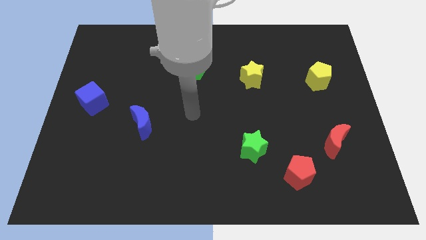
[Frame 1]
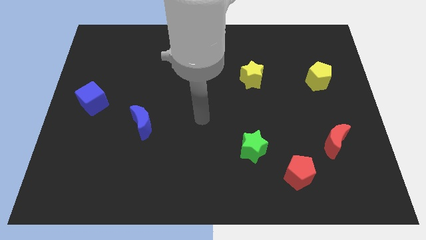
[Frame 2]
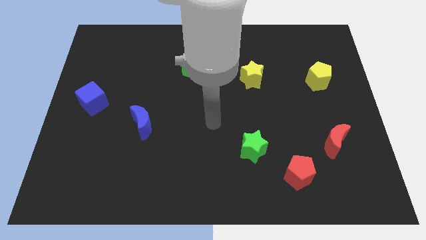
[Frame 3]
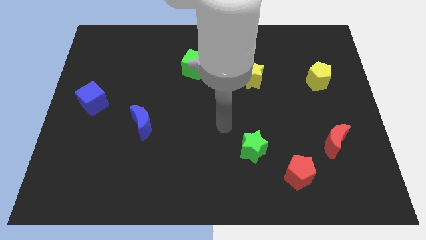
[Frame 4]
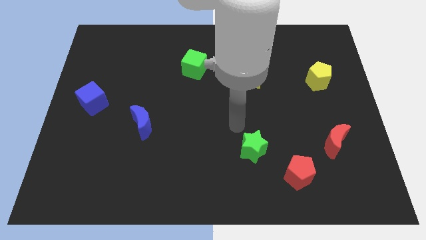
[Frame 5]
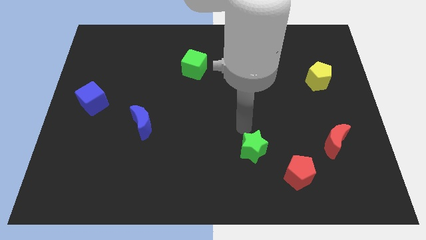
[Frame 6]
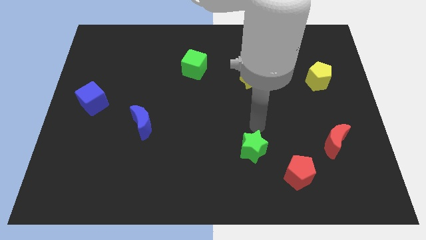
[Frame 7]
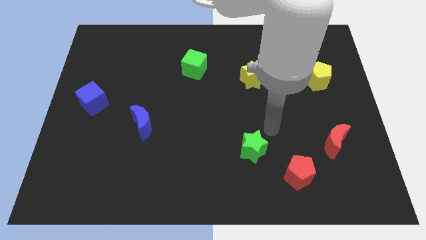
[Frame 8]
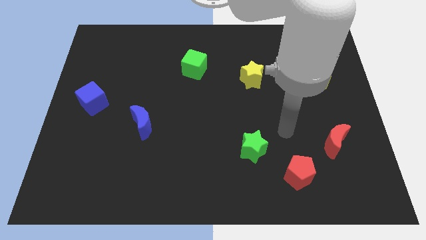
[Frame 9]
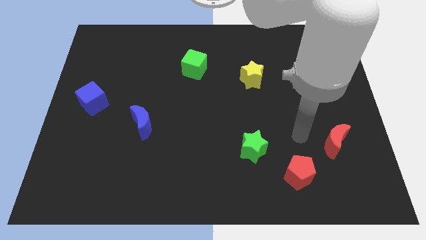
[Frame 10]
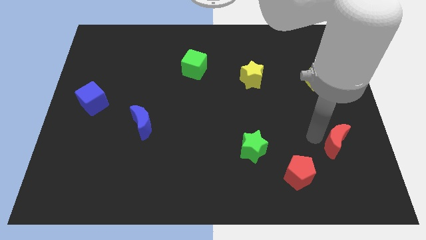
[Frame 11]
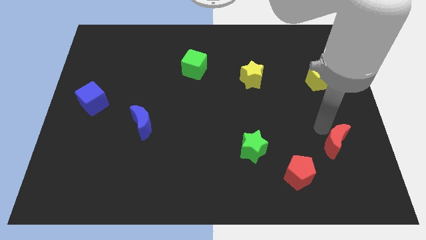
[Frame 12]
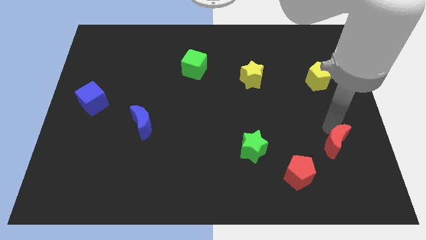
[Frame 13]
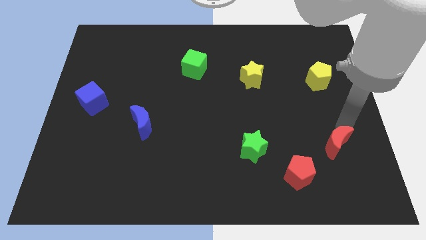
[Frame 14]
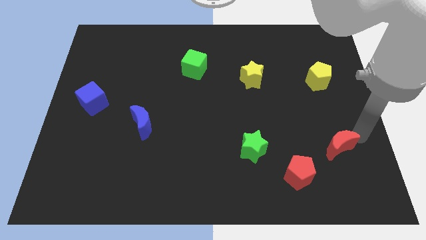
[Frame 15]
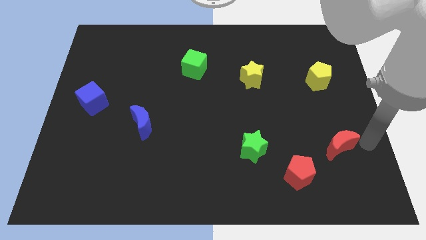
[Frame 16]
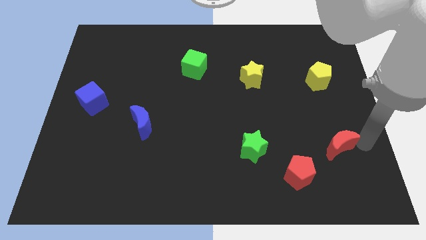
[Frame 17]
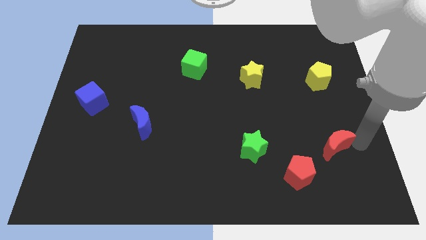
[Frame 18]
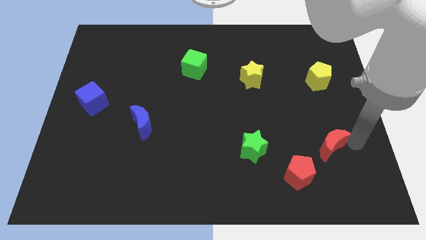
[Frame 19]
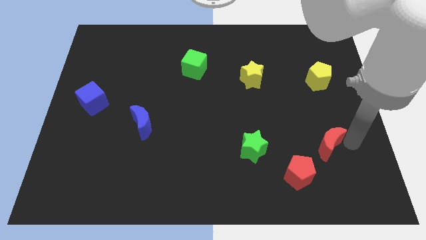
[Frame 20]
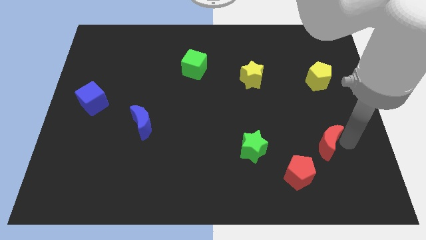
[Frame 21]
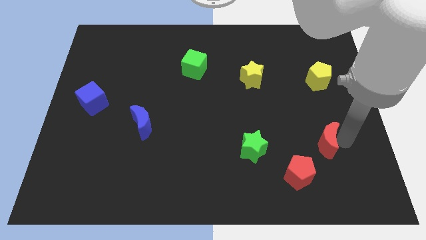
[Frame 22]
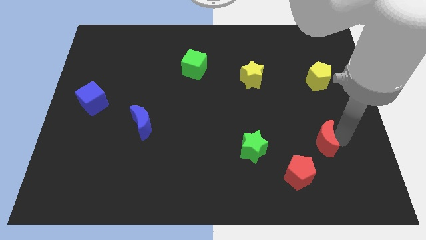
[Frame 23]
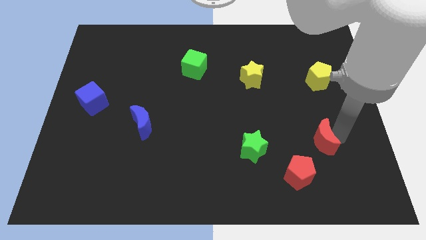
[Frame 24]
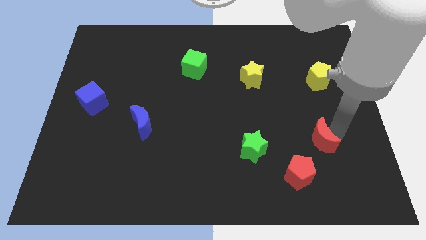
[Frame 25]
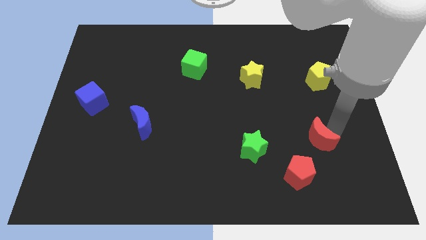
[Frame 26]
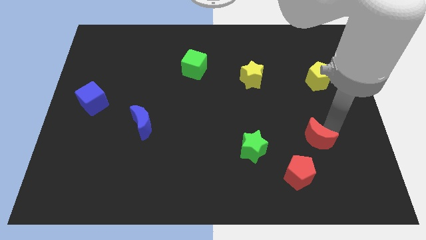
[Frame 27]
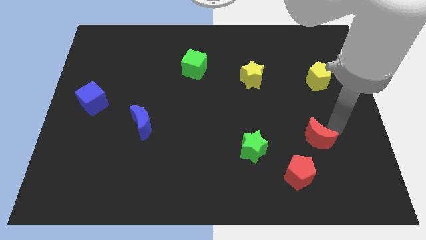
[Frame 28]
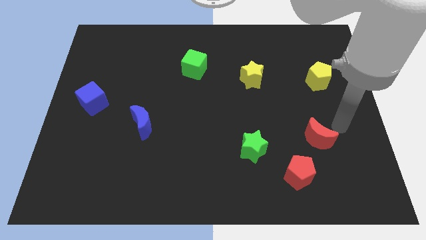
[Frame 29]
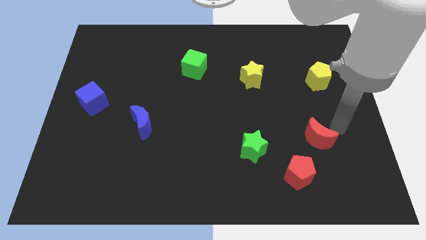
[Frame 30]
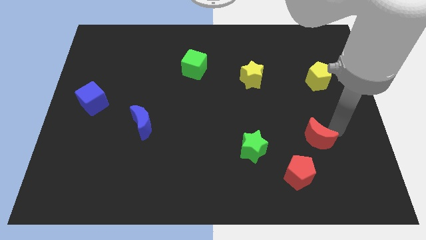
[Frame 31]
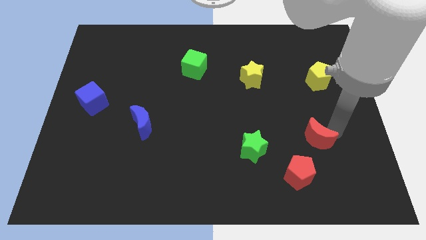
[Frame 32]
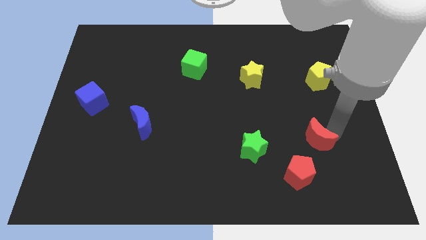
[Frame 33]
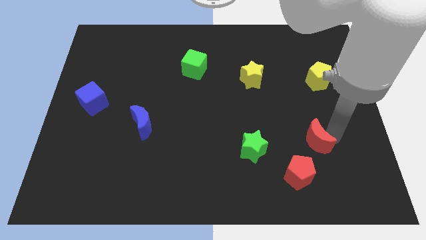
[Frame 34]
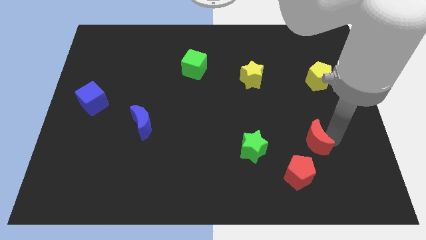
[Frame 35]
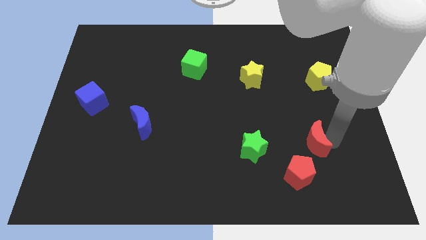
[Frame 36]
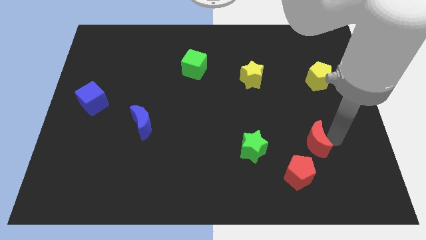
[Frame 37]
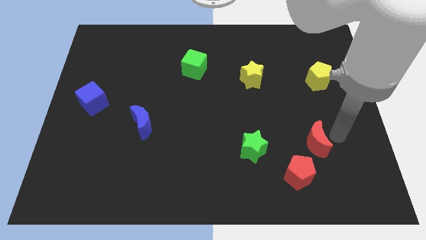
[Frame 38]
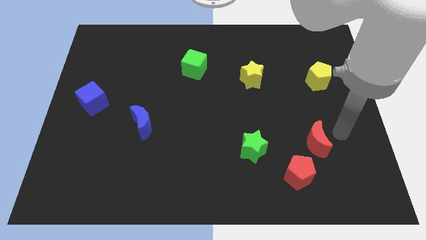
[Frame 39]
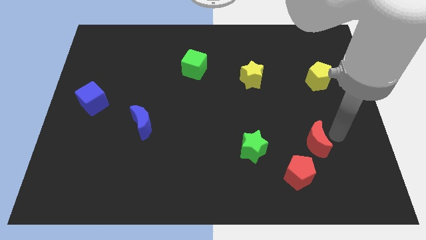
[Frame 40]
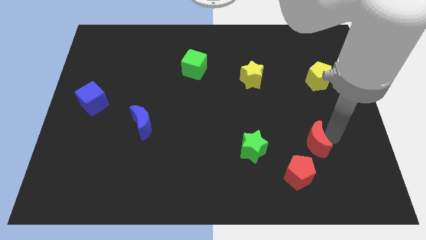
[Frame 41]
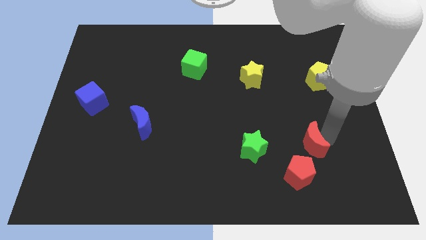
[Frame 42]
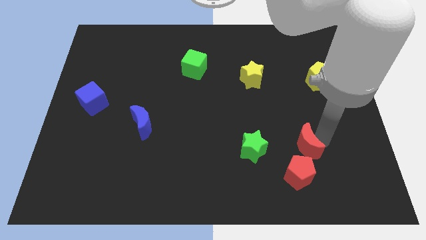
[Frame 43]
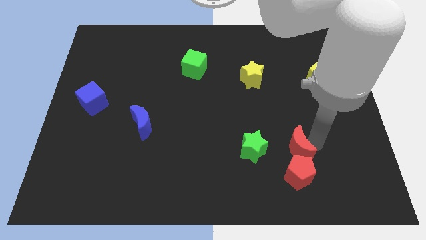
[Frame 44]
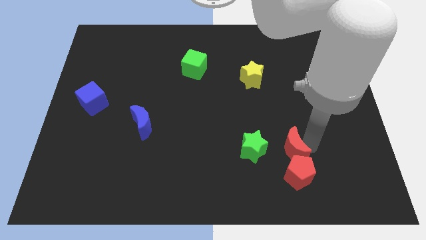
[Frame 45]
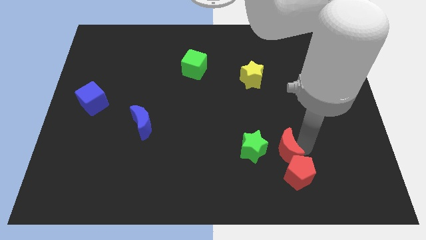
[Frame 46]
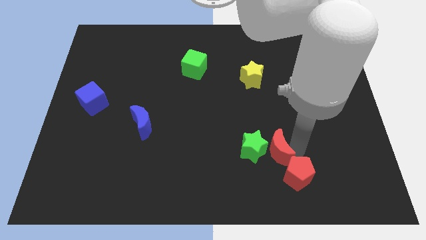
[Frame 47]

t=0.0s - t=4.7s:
put the red moon close to the green star

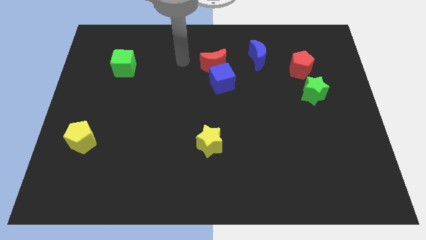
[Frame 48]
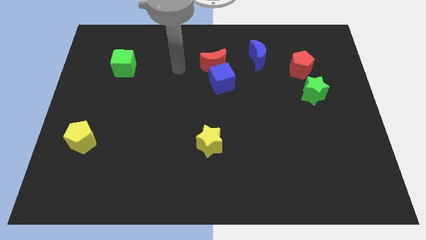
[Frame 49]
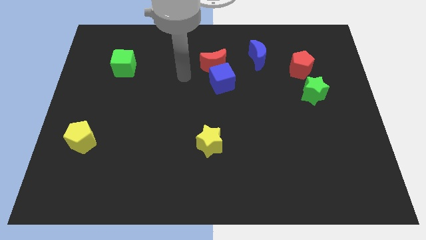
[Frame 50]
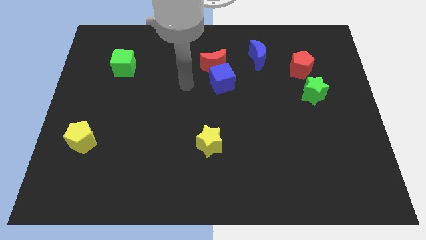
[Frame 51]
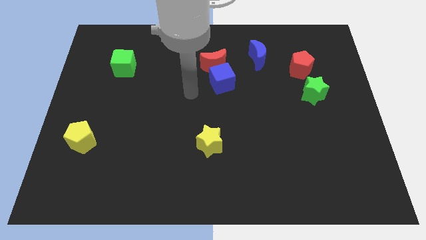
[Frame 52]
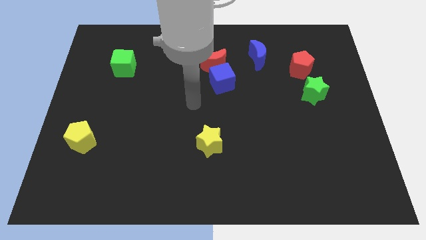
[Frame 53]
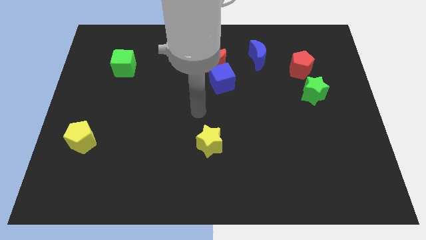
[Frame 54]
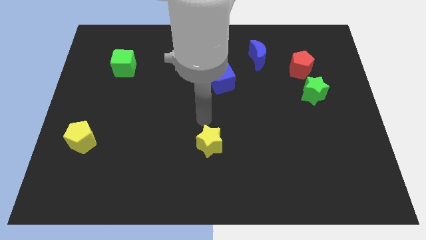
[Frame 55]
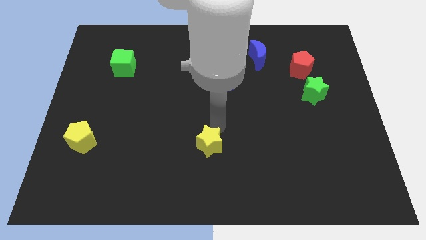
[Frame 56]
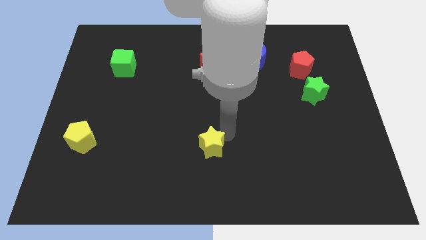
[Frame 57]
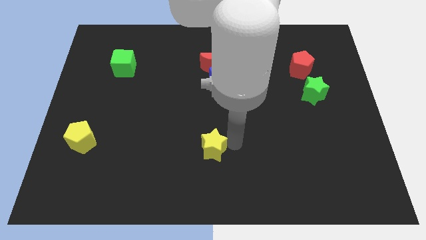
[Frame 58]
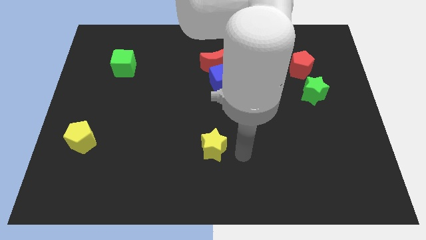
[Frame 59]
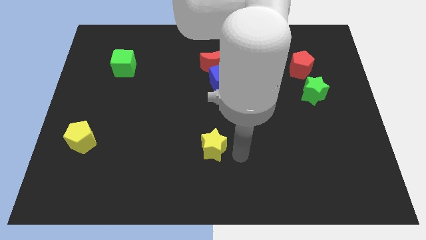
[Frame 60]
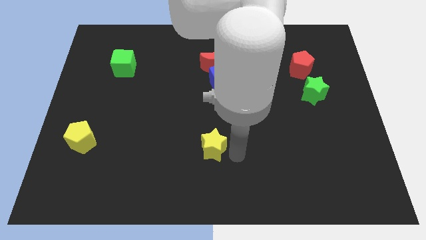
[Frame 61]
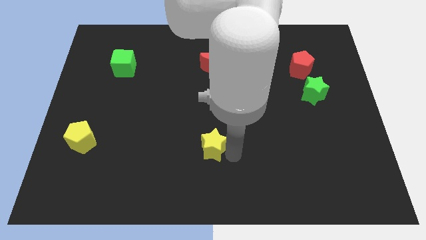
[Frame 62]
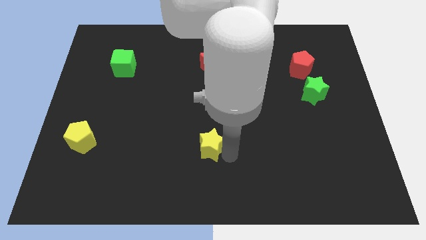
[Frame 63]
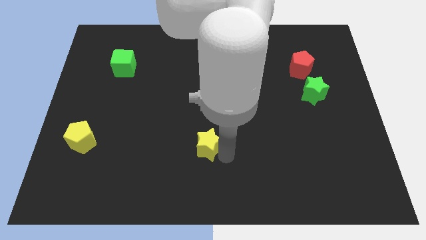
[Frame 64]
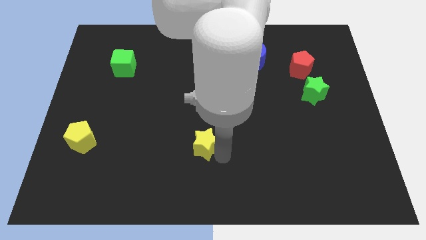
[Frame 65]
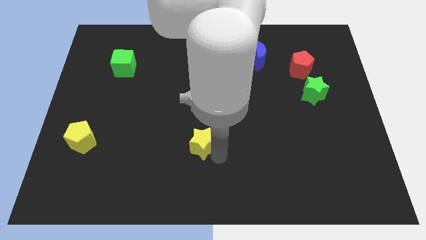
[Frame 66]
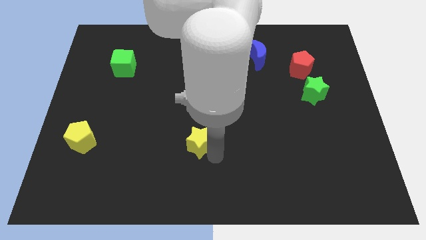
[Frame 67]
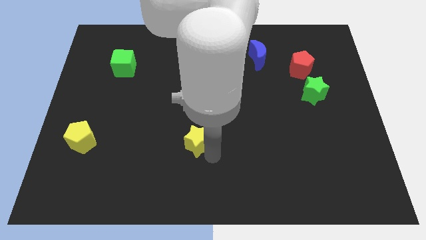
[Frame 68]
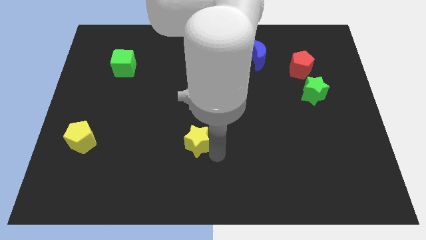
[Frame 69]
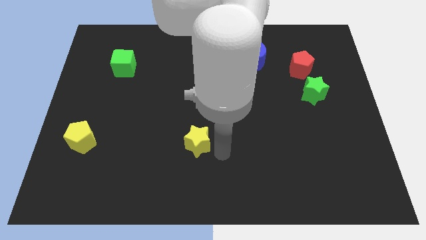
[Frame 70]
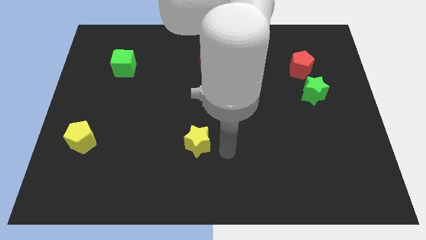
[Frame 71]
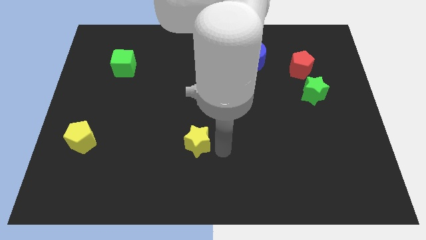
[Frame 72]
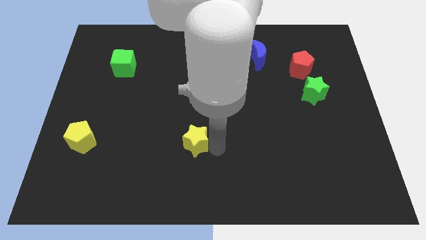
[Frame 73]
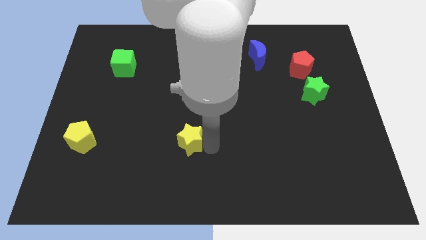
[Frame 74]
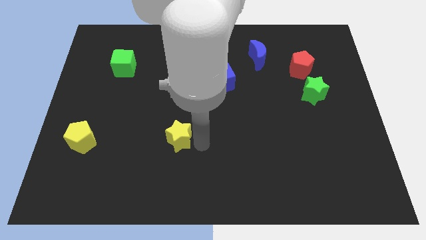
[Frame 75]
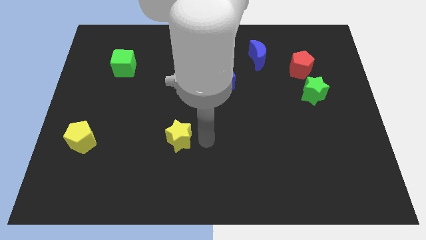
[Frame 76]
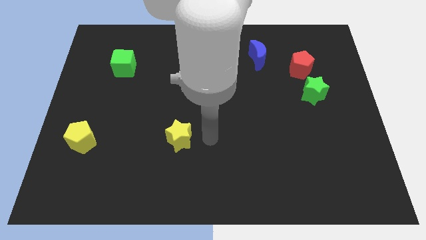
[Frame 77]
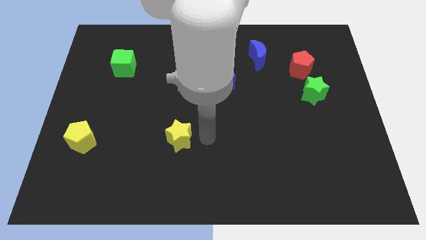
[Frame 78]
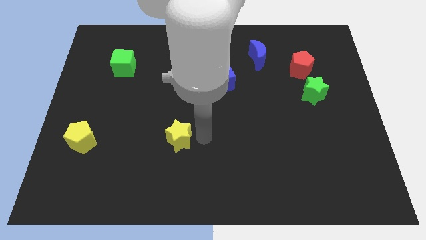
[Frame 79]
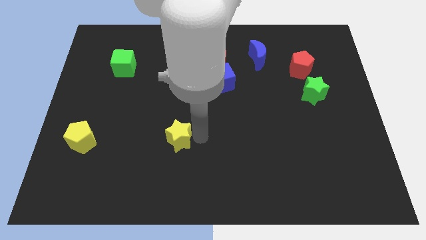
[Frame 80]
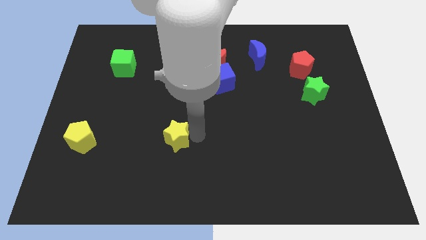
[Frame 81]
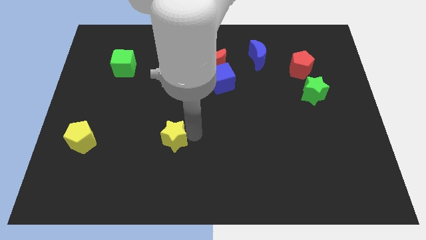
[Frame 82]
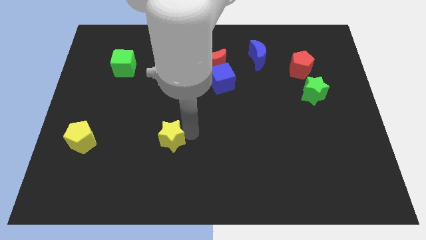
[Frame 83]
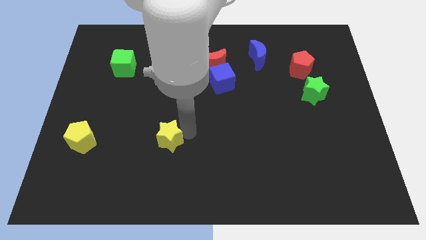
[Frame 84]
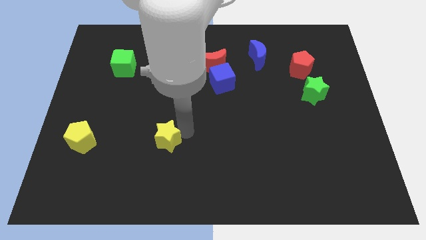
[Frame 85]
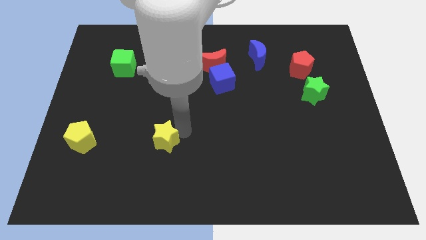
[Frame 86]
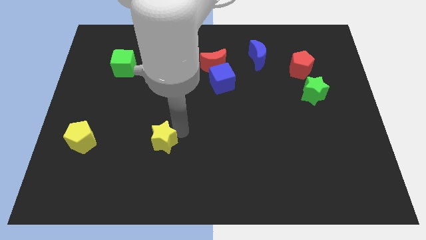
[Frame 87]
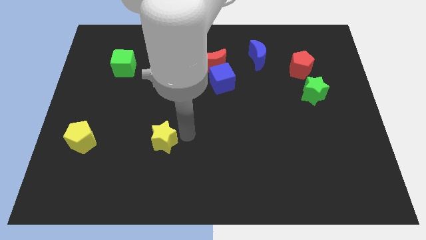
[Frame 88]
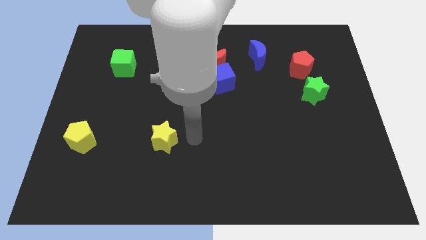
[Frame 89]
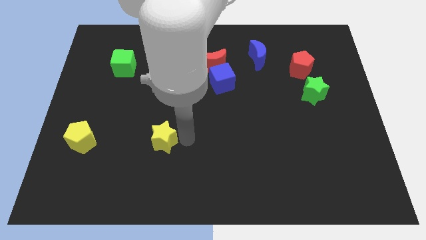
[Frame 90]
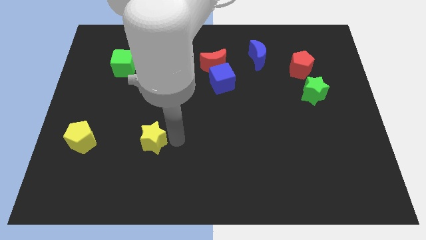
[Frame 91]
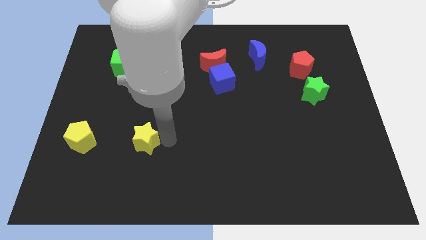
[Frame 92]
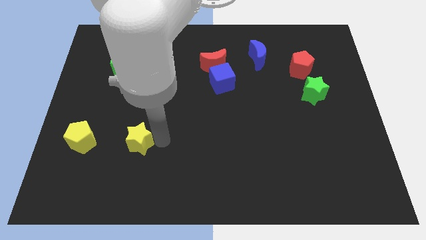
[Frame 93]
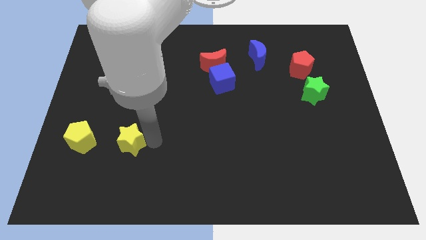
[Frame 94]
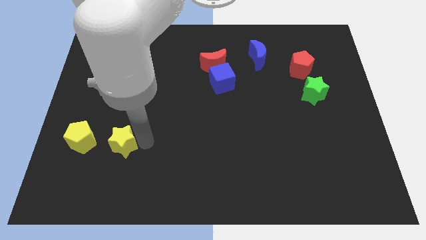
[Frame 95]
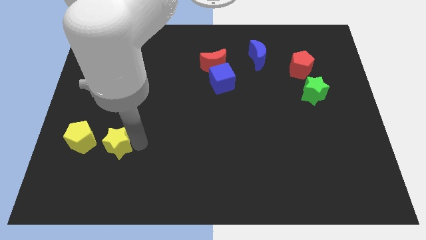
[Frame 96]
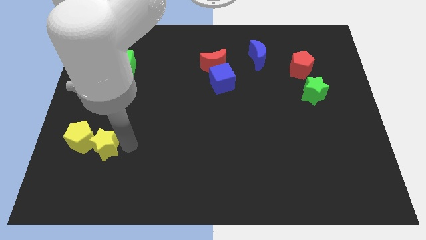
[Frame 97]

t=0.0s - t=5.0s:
put the yellow star towards the yellow pentagon
